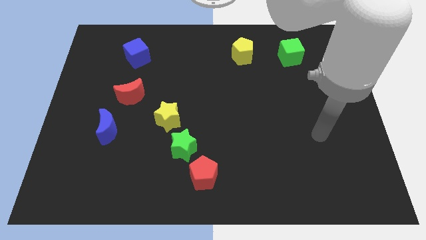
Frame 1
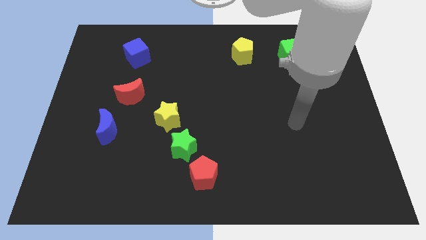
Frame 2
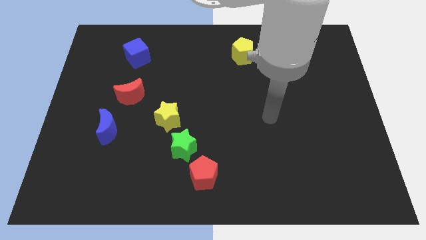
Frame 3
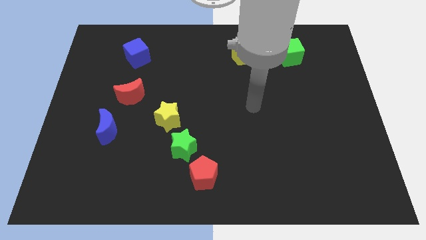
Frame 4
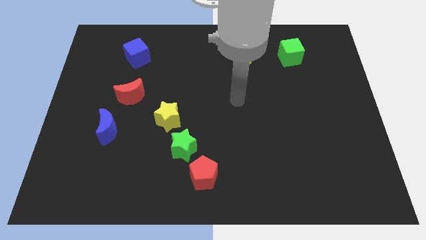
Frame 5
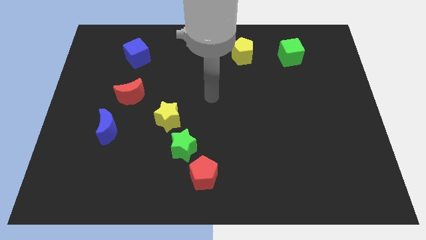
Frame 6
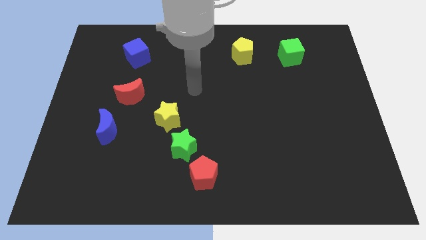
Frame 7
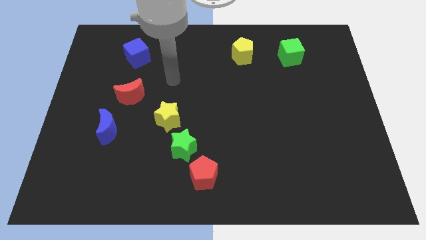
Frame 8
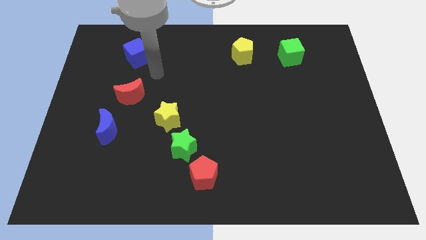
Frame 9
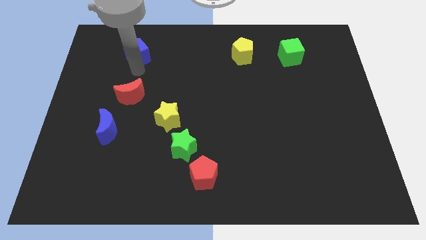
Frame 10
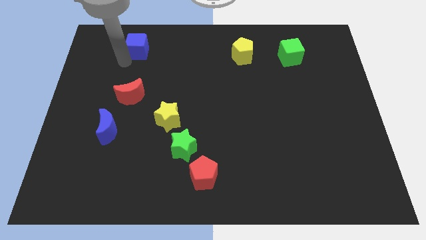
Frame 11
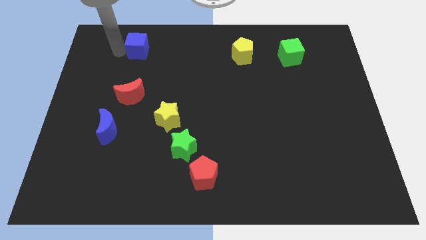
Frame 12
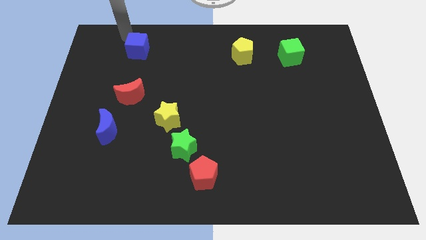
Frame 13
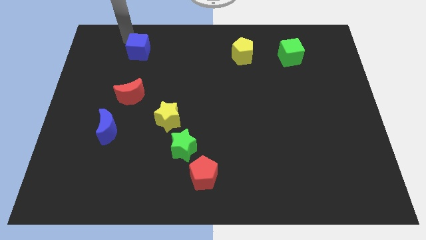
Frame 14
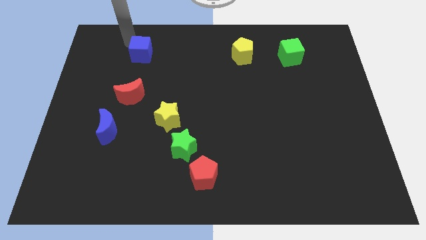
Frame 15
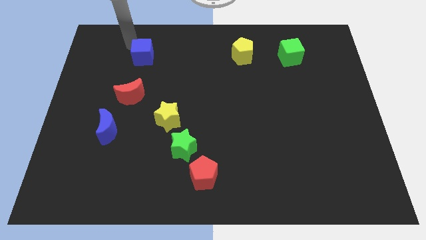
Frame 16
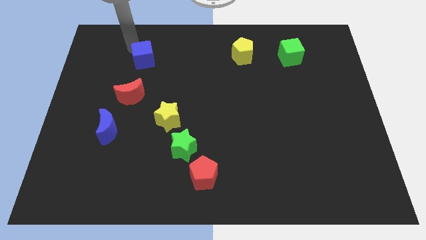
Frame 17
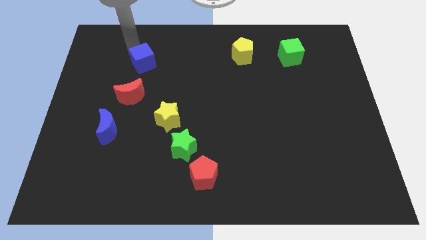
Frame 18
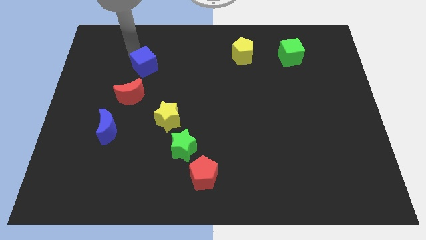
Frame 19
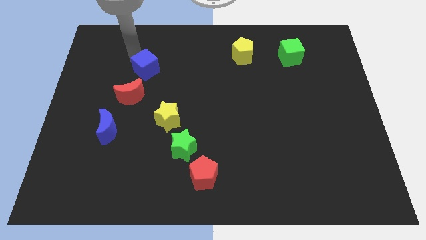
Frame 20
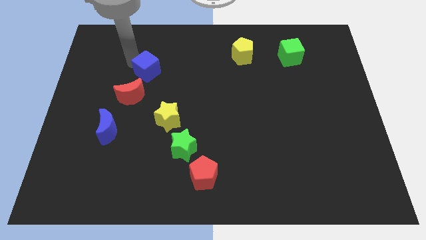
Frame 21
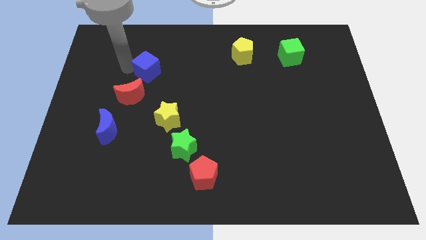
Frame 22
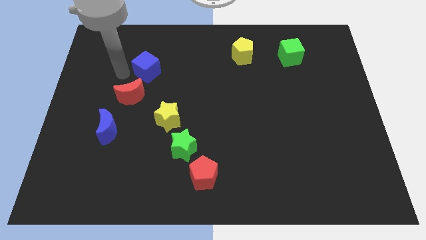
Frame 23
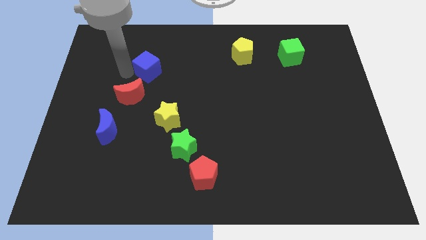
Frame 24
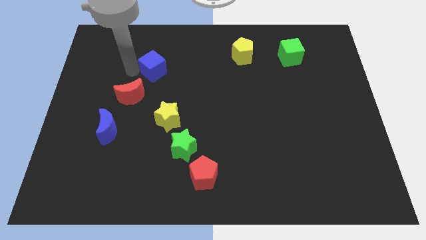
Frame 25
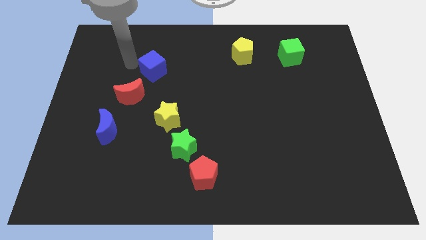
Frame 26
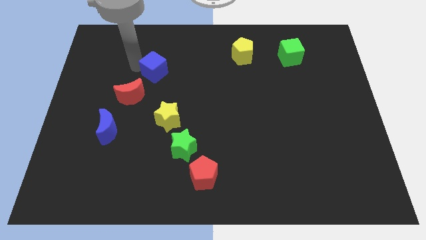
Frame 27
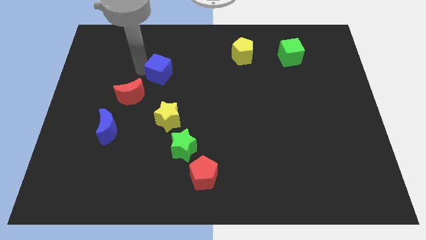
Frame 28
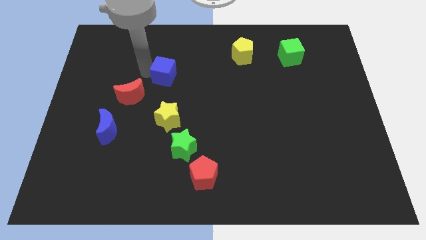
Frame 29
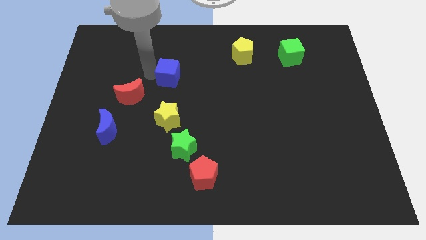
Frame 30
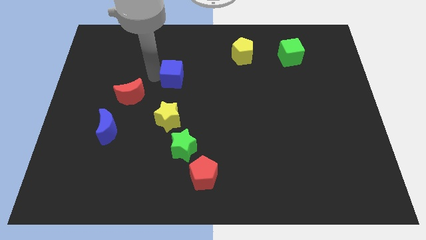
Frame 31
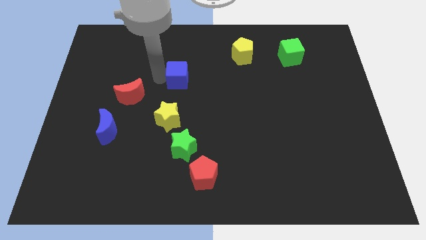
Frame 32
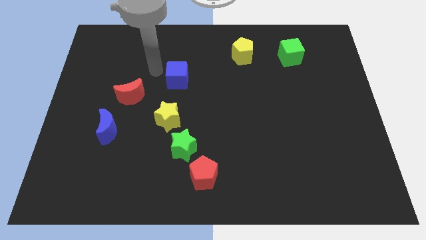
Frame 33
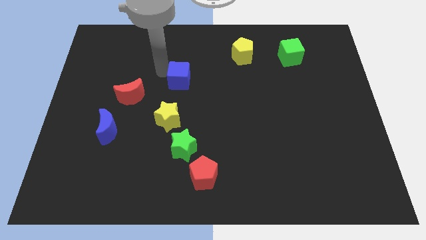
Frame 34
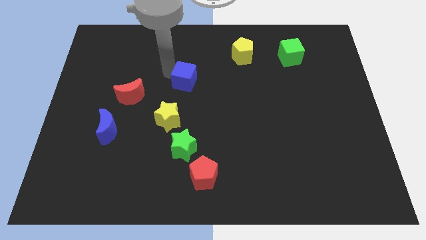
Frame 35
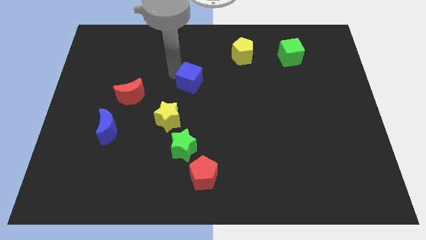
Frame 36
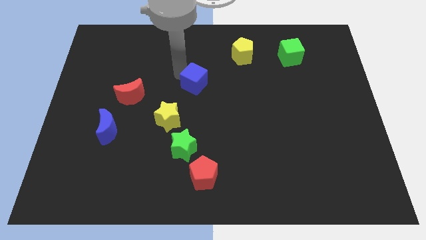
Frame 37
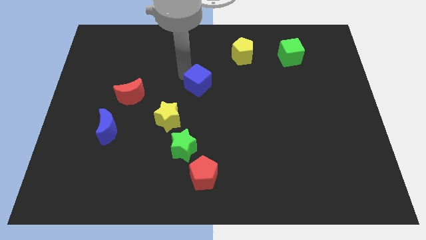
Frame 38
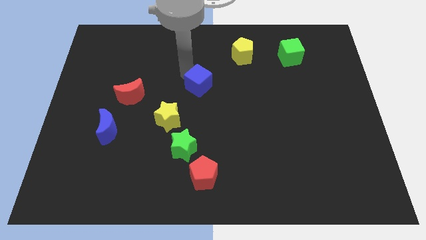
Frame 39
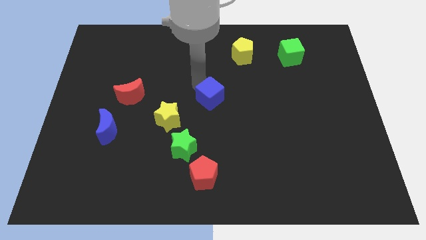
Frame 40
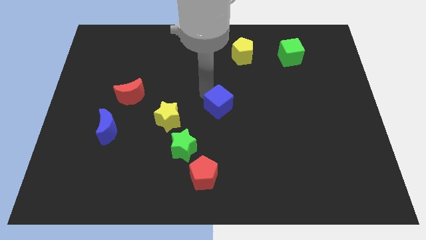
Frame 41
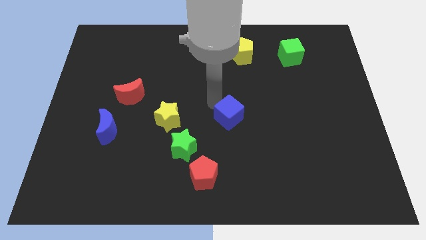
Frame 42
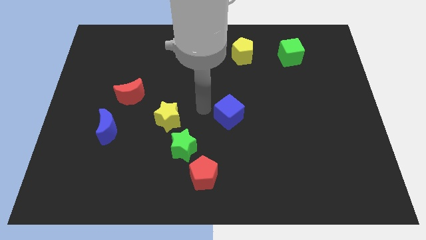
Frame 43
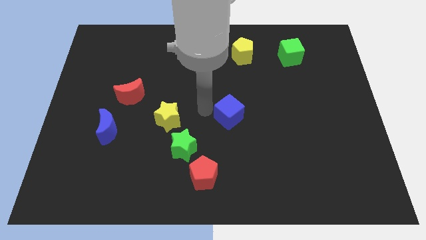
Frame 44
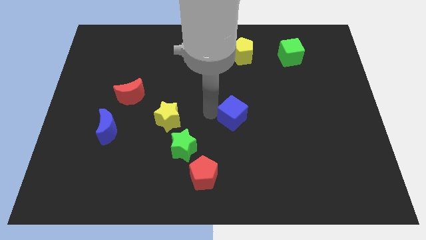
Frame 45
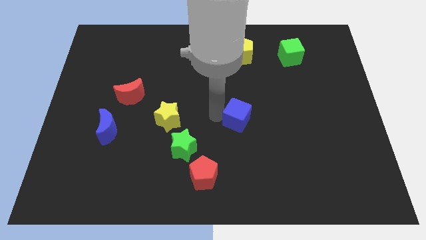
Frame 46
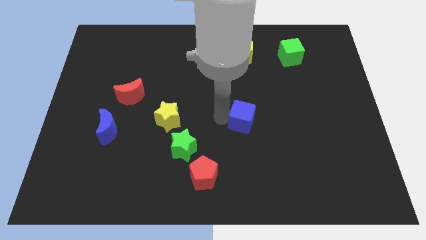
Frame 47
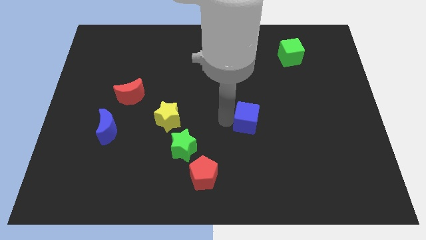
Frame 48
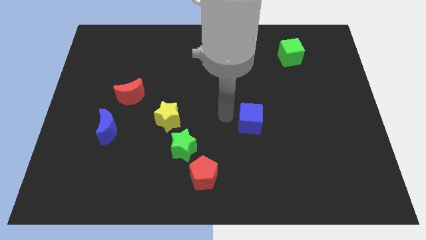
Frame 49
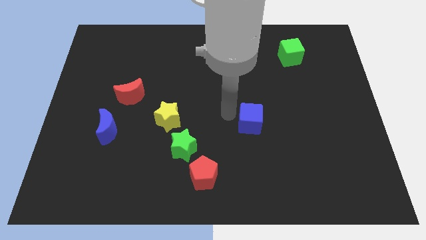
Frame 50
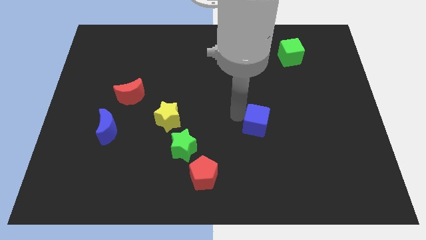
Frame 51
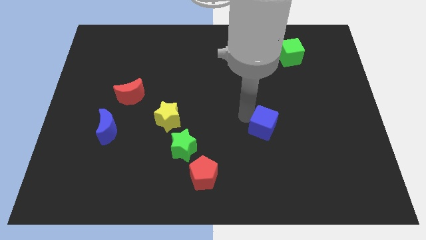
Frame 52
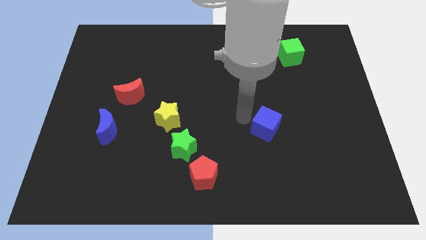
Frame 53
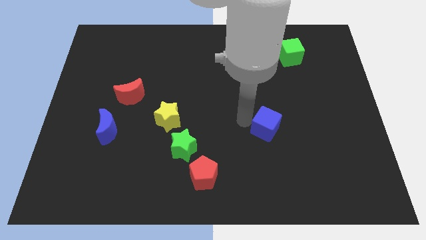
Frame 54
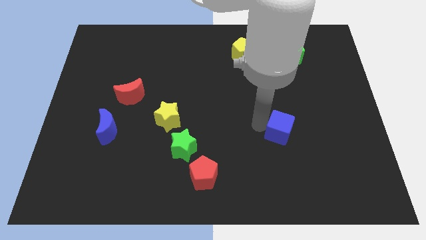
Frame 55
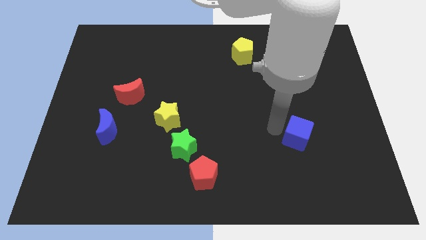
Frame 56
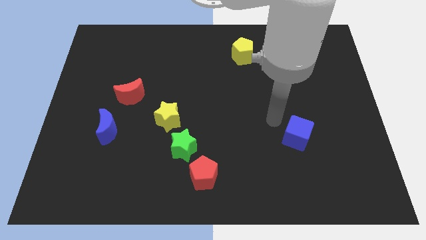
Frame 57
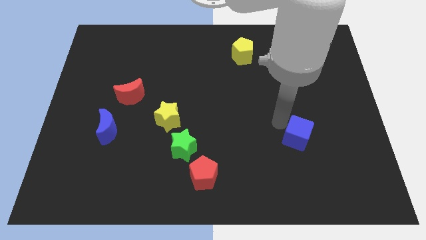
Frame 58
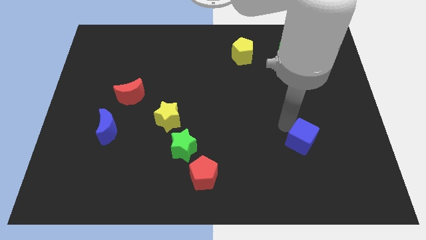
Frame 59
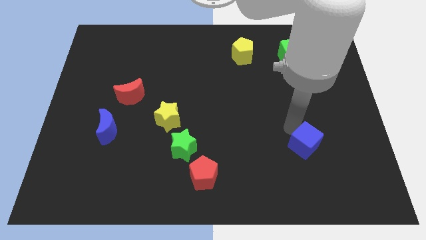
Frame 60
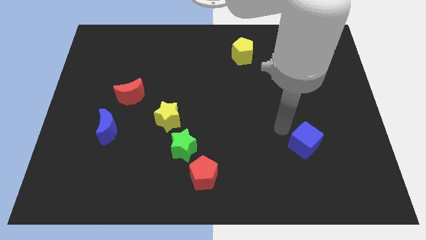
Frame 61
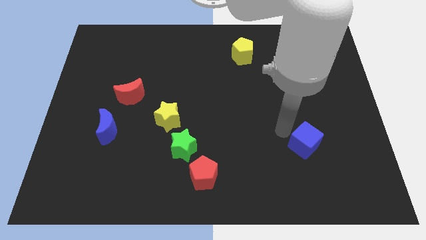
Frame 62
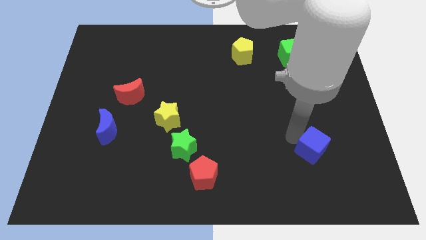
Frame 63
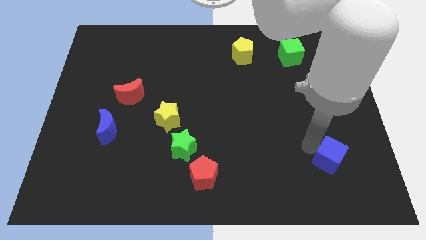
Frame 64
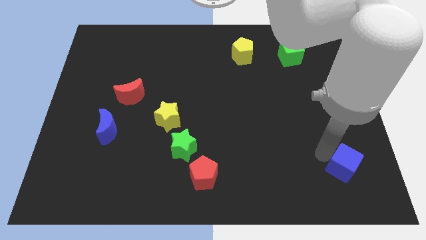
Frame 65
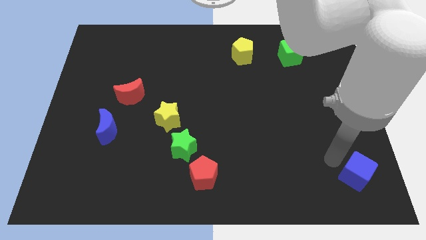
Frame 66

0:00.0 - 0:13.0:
put the blue cube to the bottom right corner

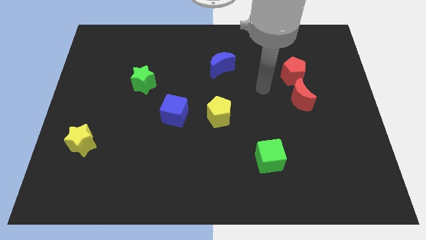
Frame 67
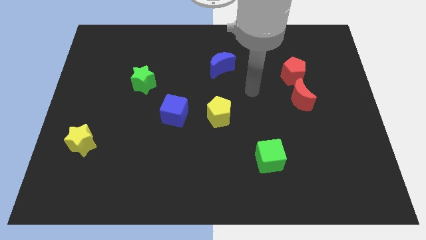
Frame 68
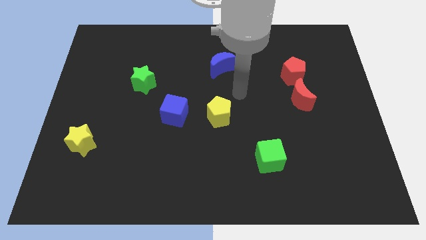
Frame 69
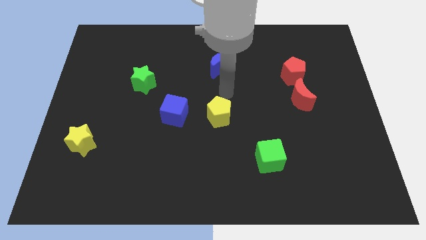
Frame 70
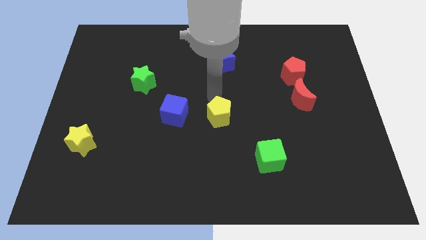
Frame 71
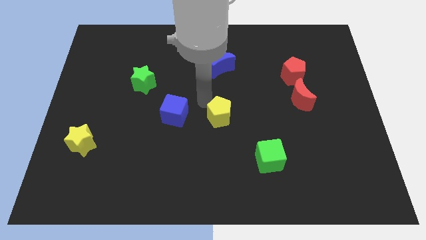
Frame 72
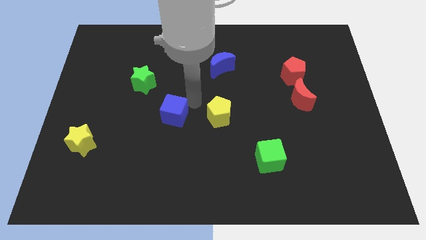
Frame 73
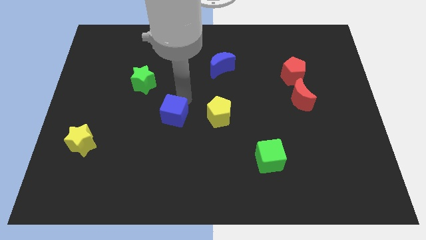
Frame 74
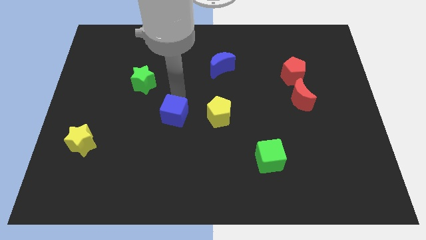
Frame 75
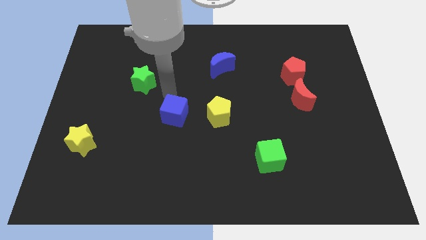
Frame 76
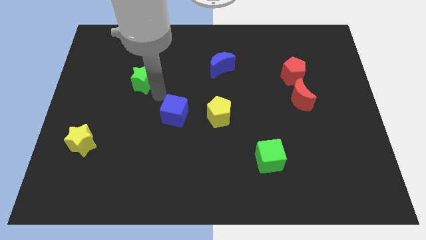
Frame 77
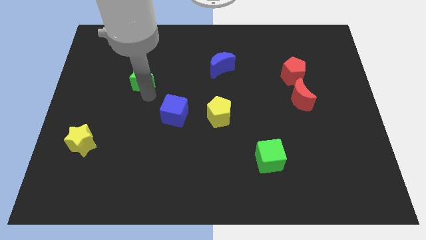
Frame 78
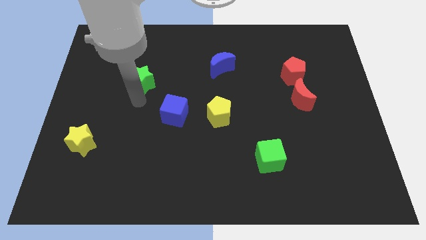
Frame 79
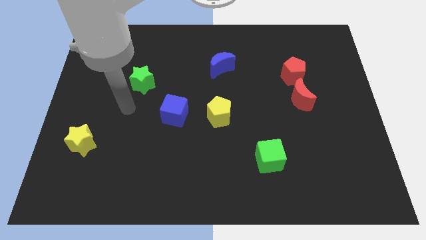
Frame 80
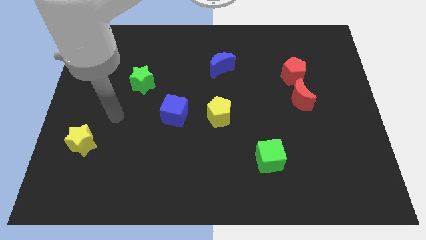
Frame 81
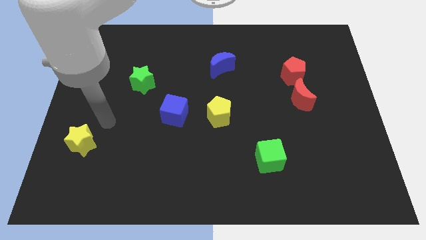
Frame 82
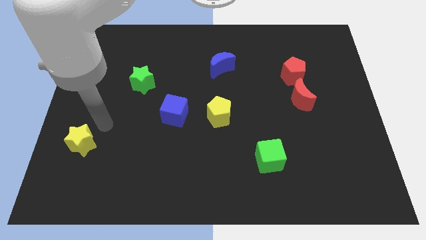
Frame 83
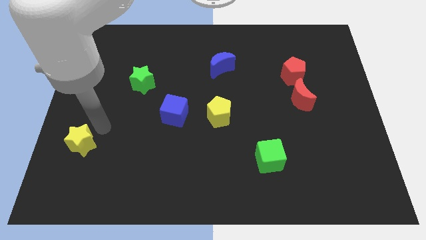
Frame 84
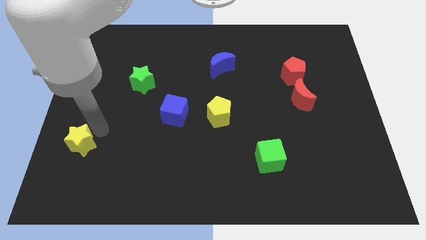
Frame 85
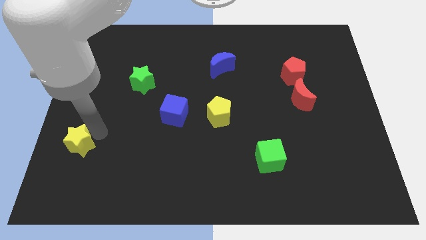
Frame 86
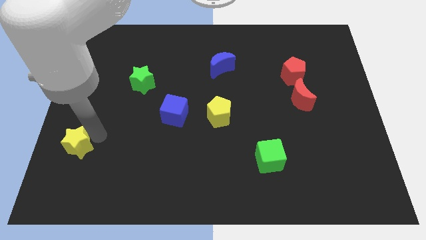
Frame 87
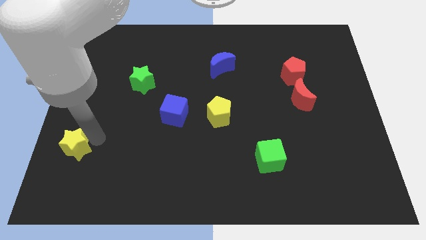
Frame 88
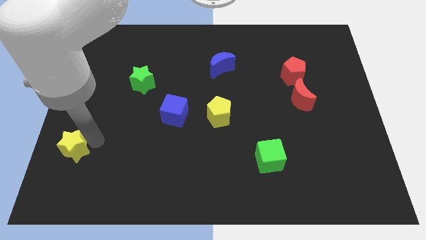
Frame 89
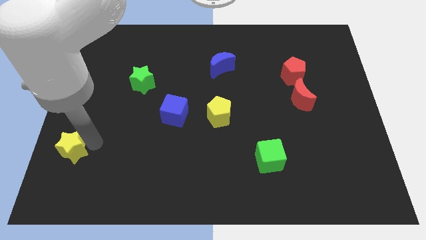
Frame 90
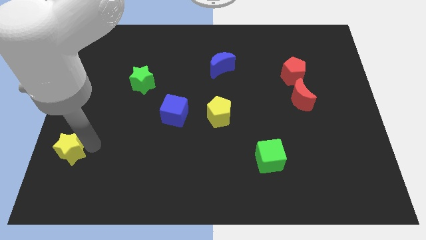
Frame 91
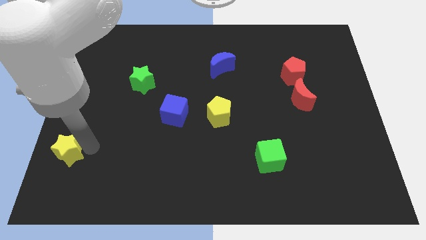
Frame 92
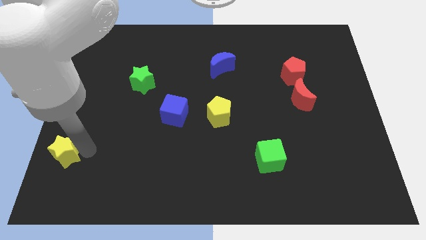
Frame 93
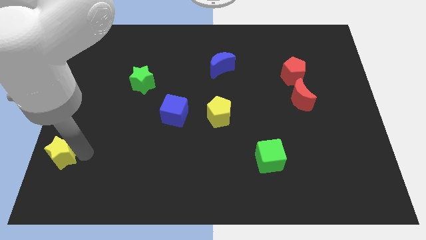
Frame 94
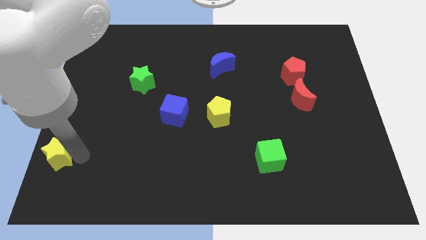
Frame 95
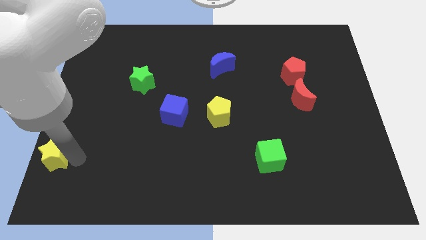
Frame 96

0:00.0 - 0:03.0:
push the yellow star to the bottom left
